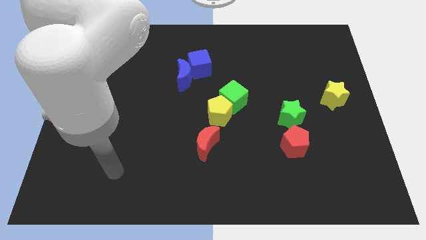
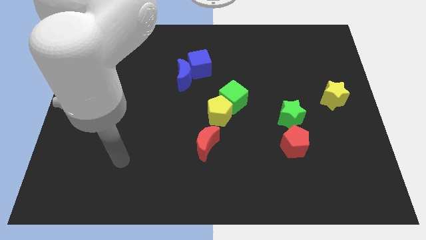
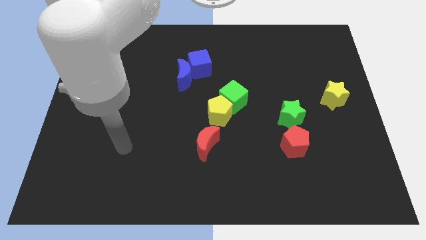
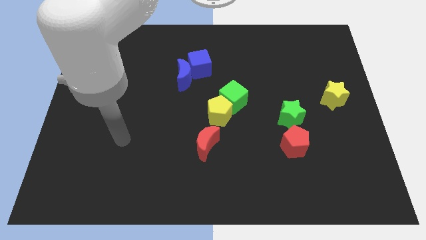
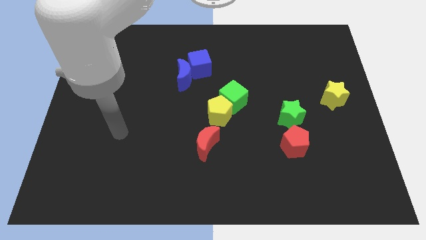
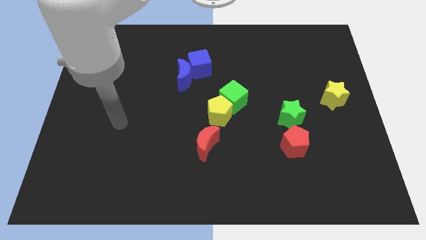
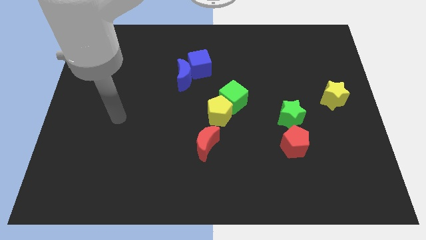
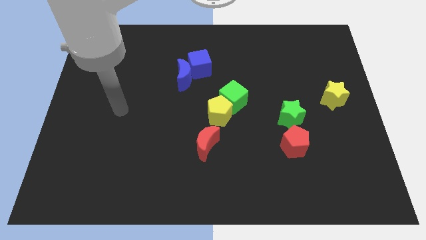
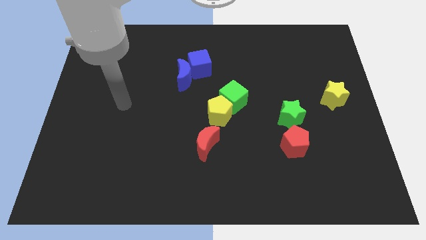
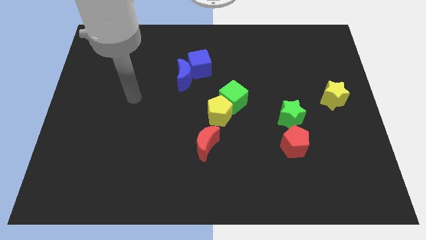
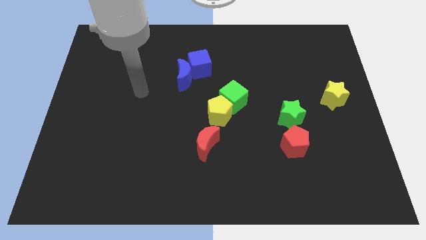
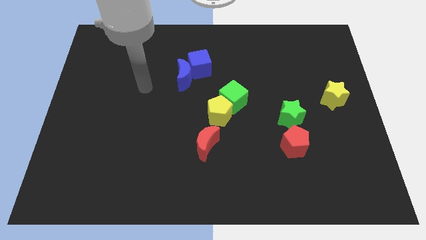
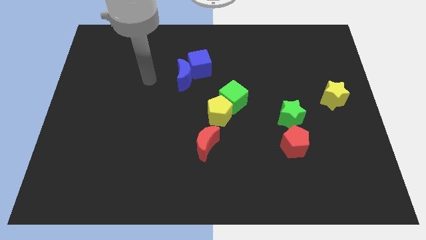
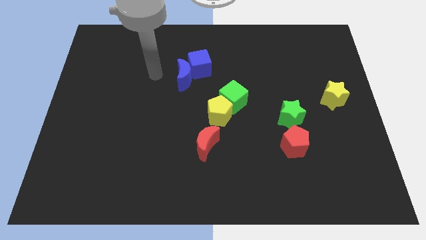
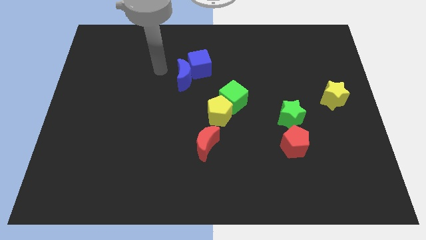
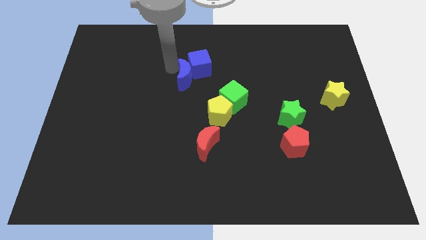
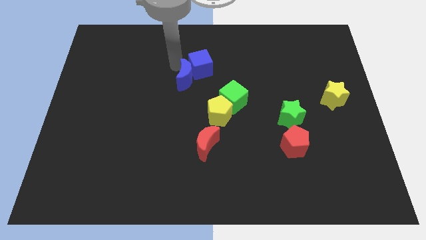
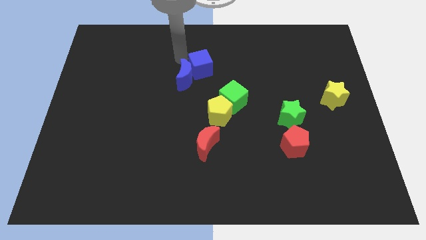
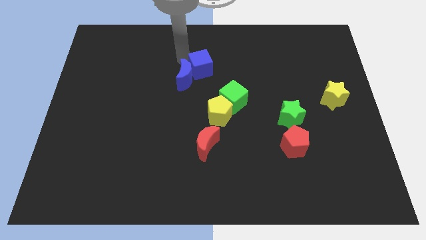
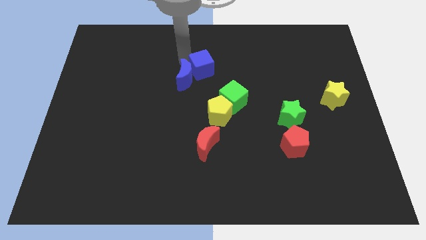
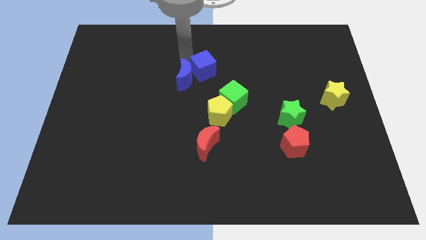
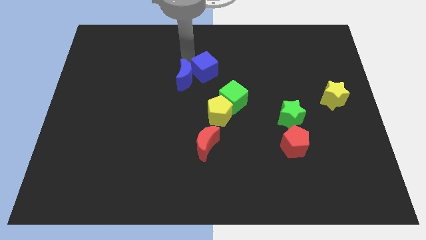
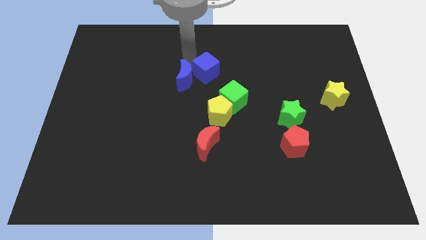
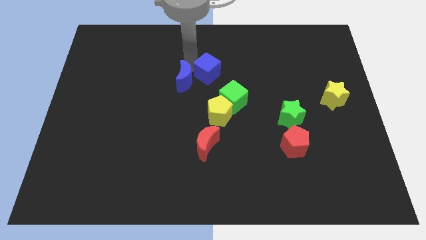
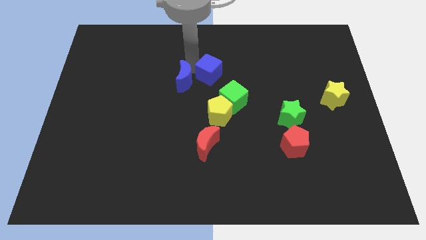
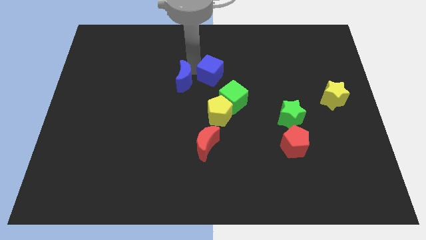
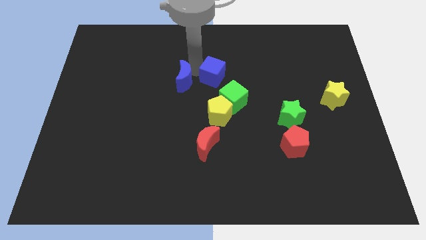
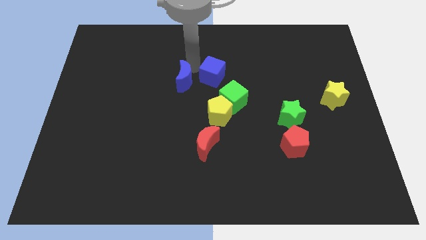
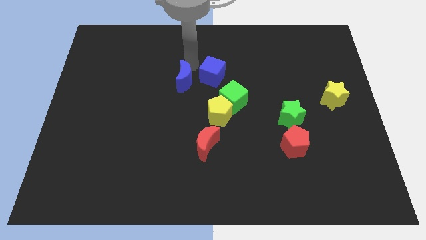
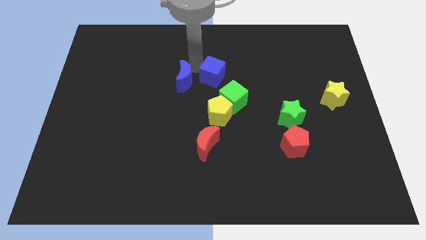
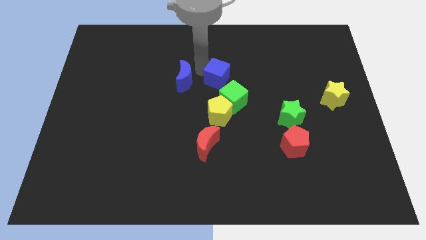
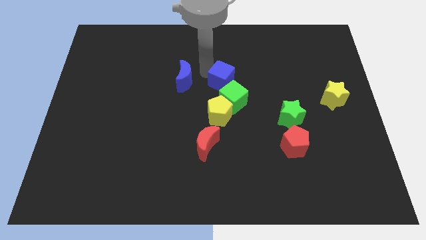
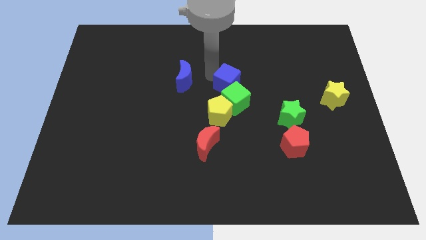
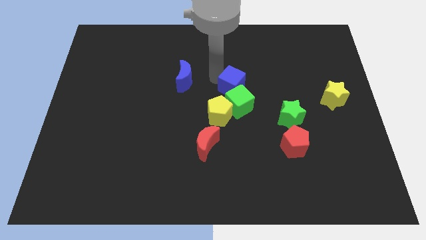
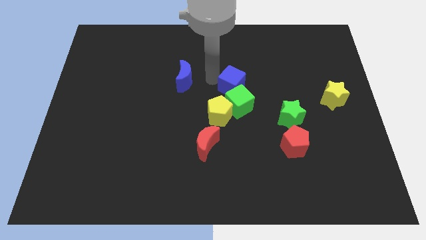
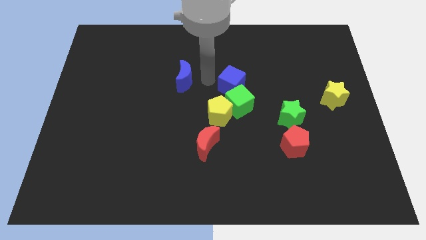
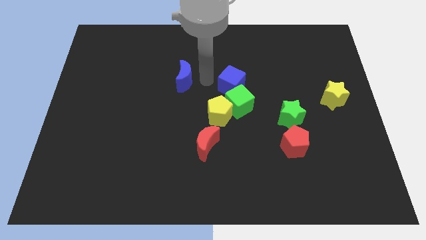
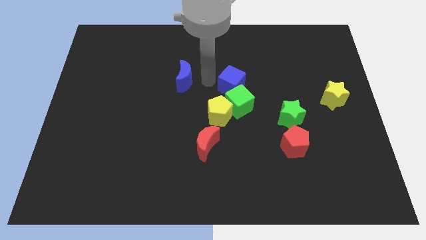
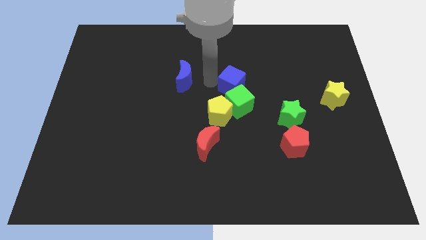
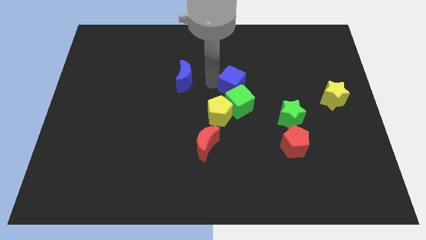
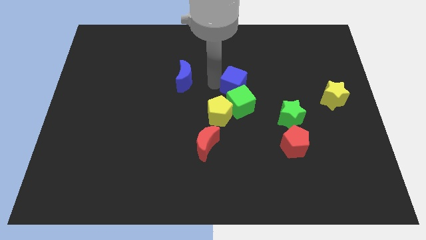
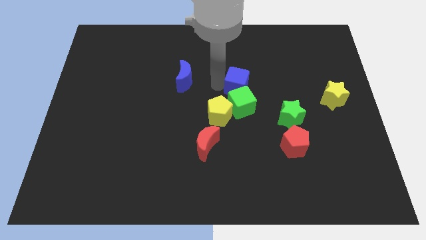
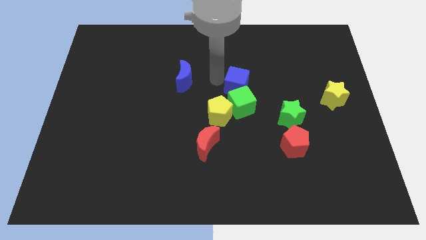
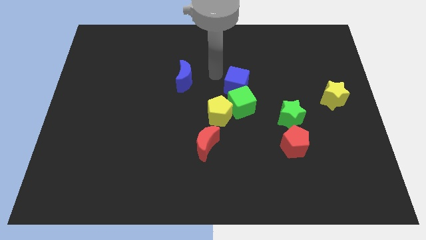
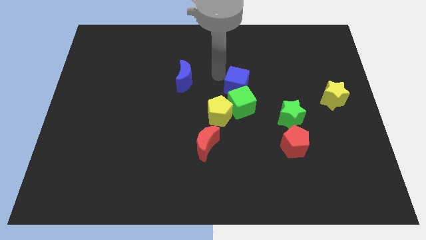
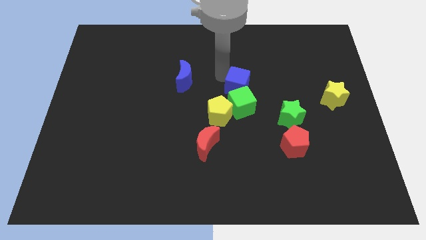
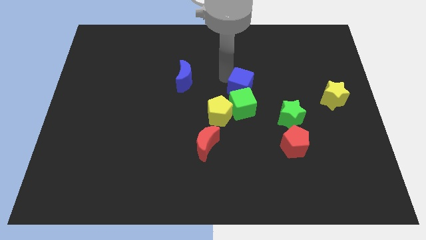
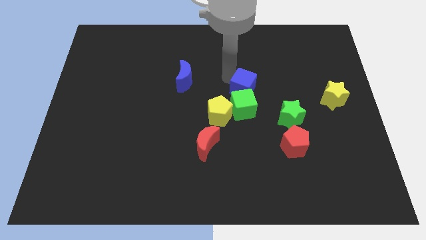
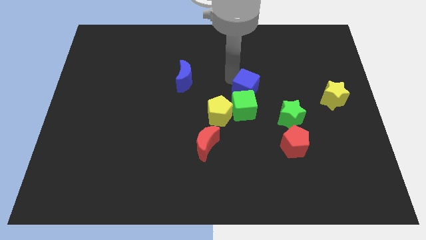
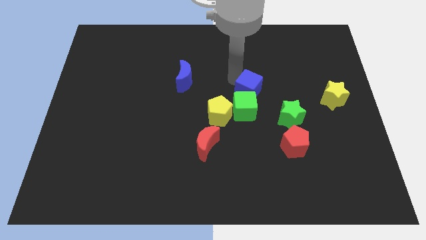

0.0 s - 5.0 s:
move the blue cube diagonally up and to the left of the green star

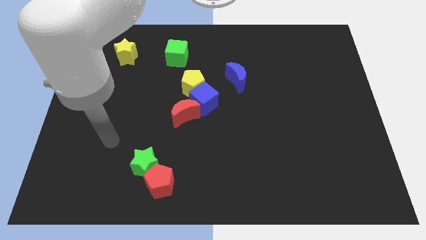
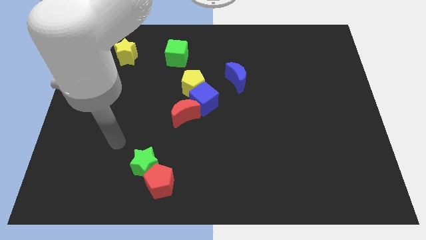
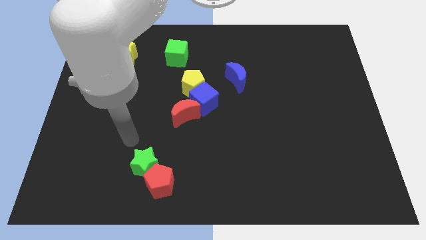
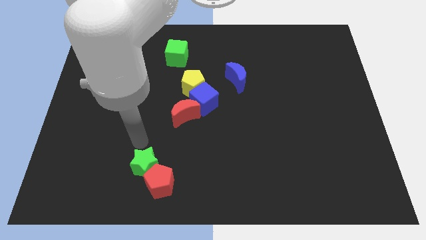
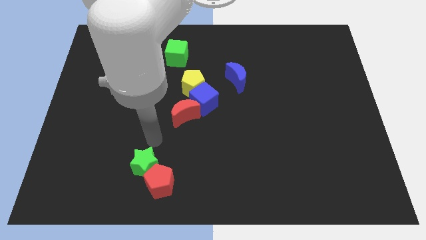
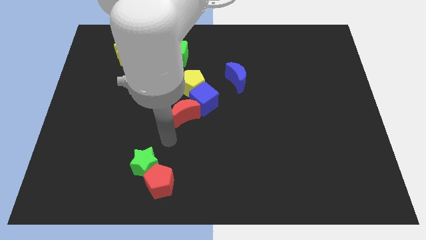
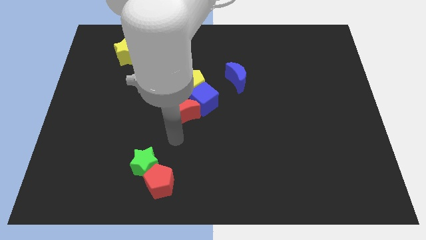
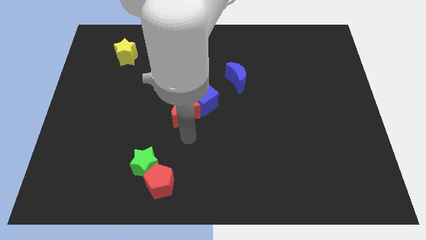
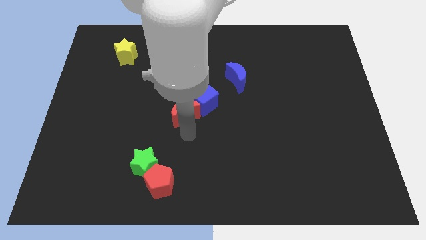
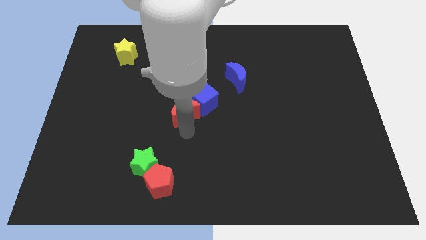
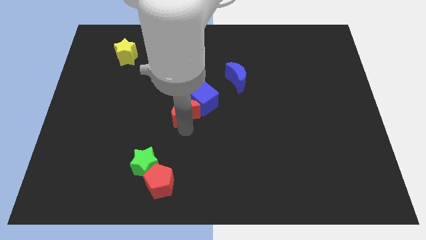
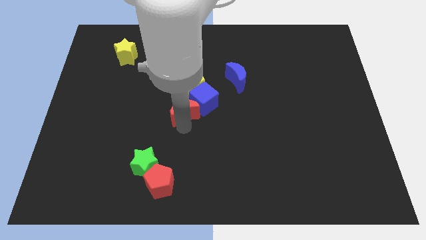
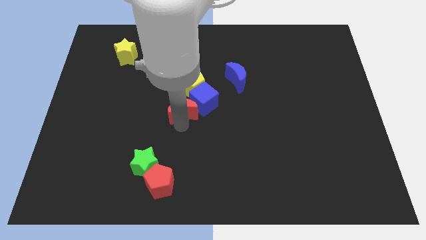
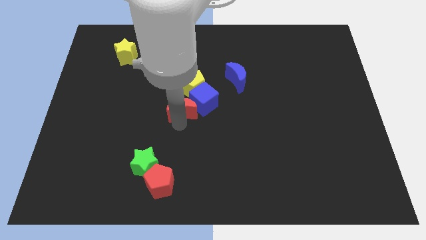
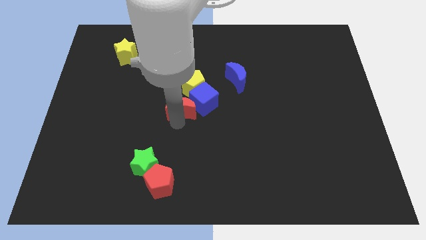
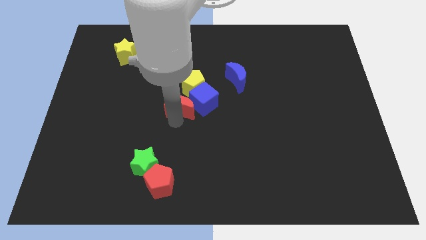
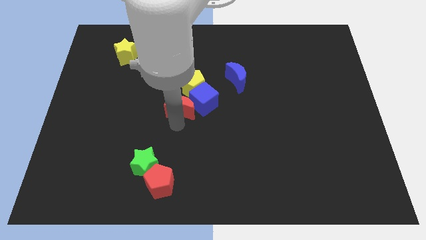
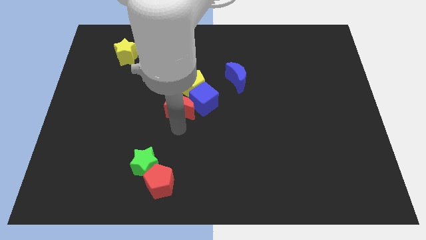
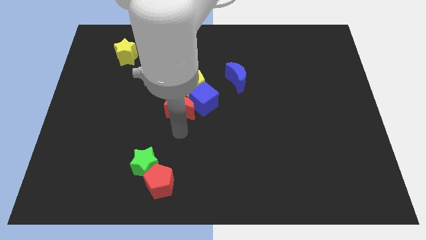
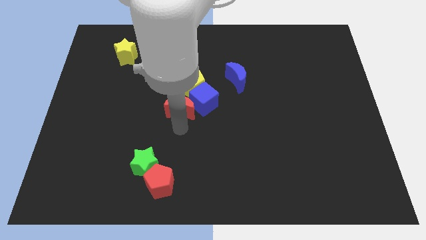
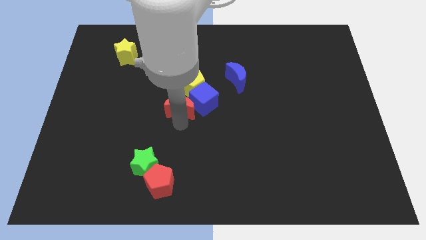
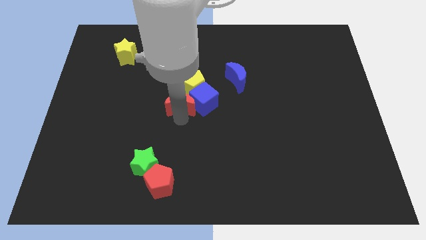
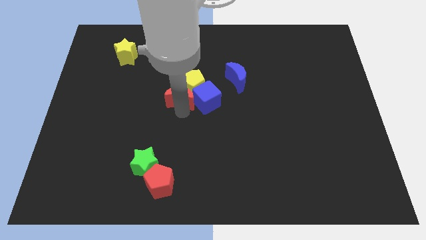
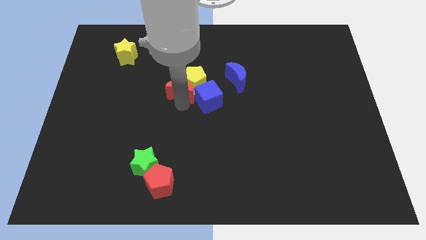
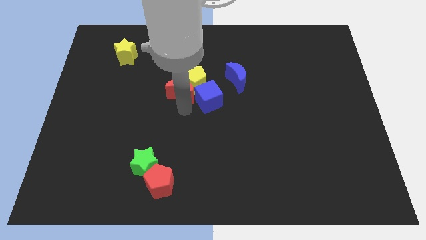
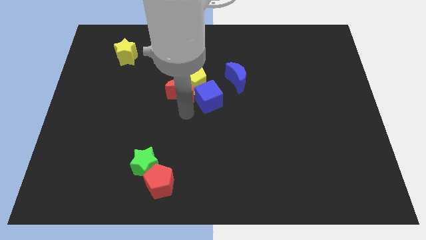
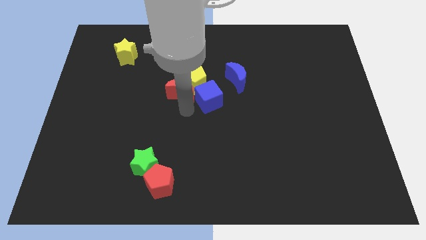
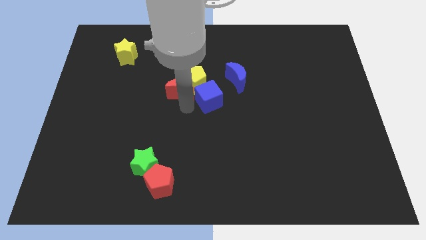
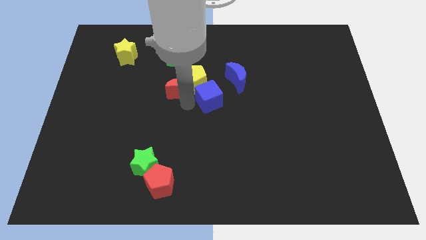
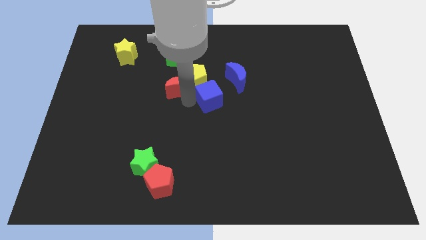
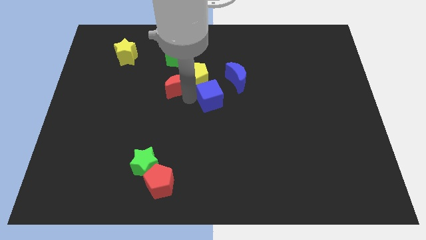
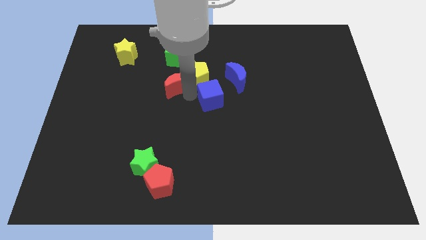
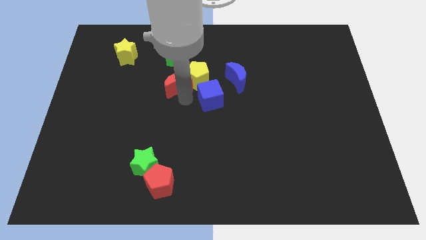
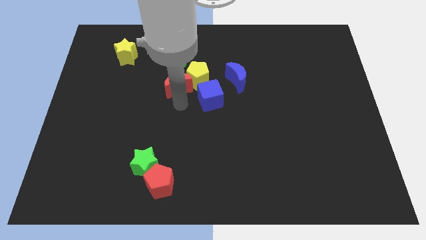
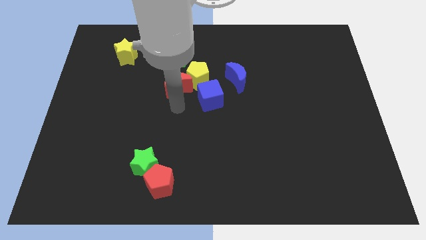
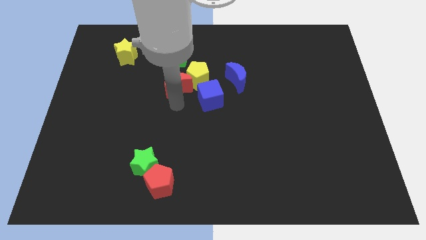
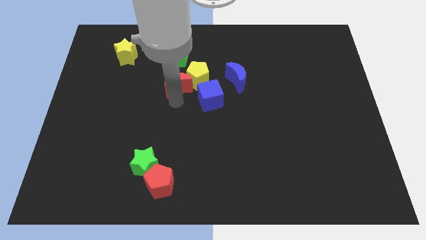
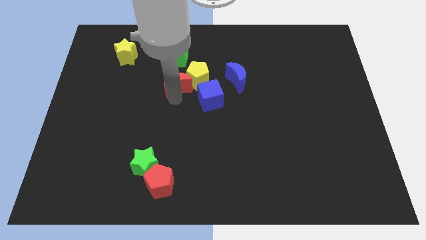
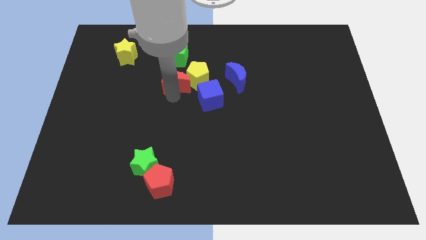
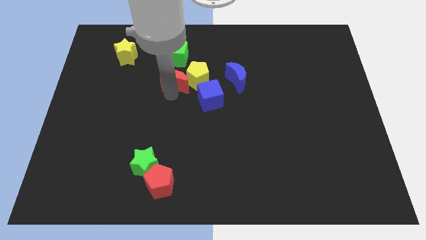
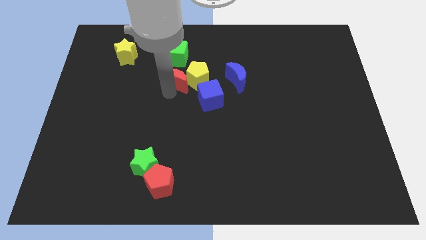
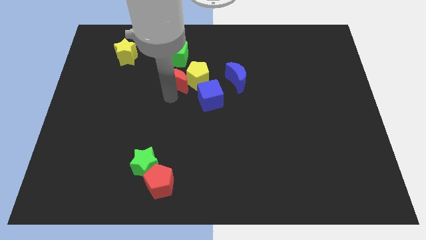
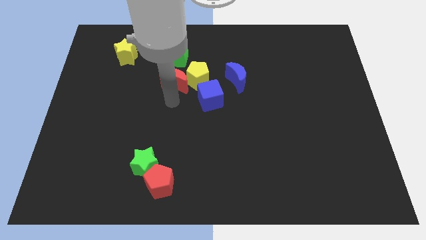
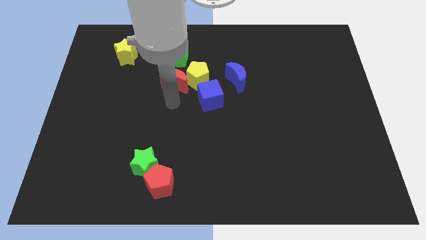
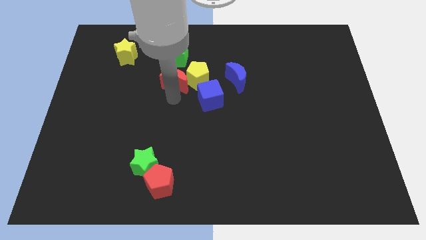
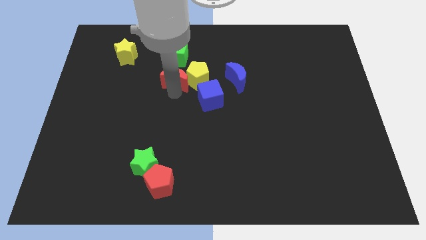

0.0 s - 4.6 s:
put the red moon diagonally up and to the left of the yellow pentagon
